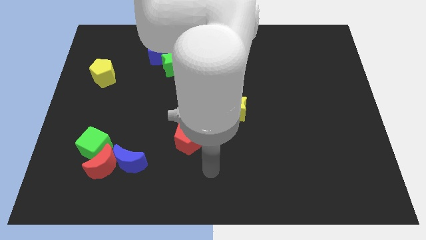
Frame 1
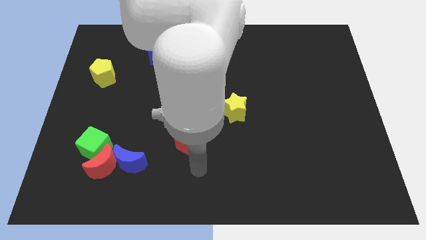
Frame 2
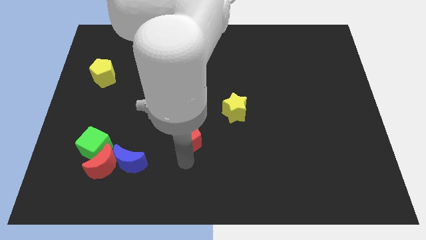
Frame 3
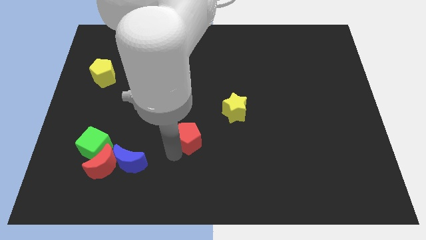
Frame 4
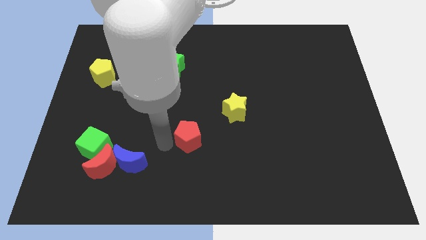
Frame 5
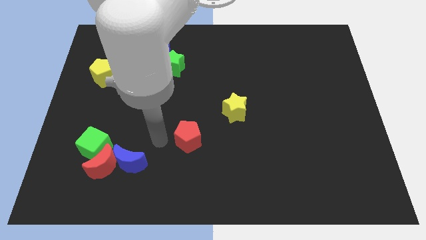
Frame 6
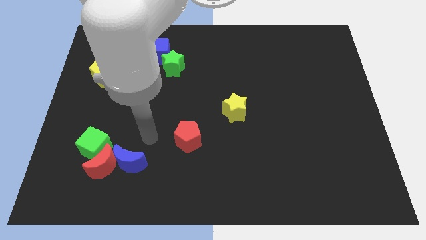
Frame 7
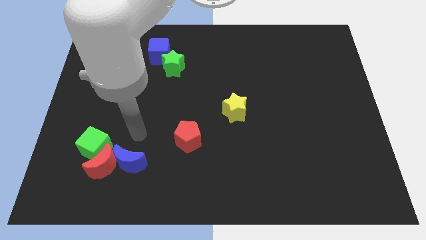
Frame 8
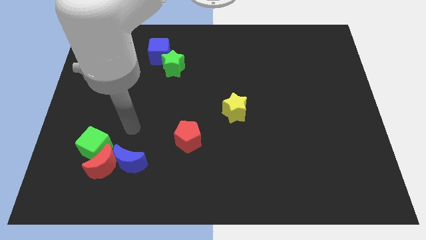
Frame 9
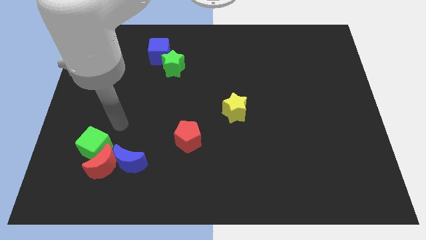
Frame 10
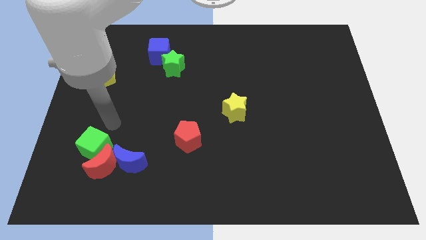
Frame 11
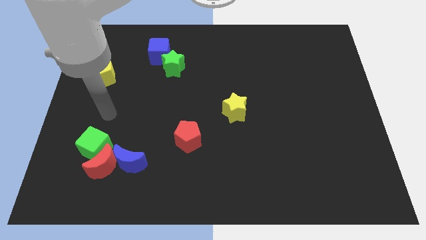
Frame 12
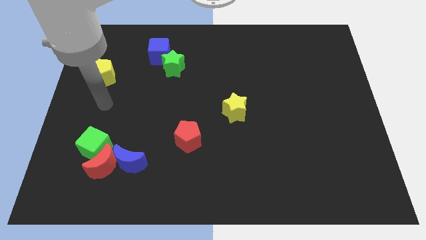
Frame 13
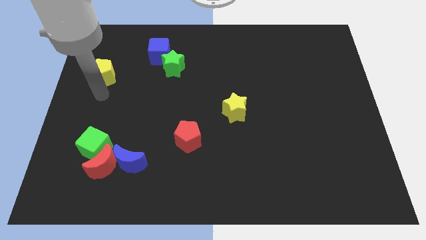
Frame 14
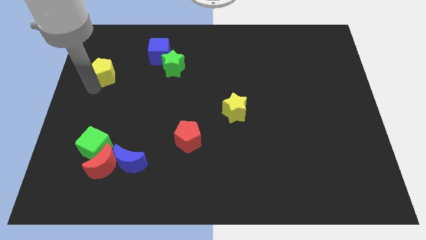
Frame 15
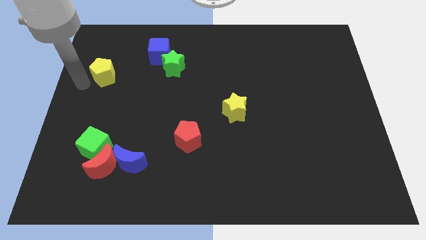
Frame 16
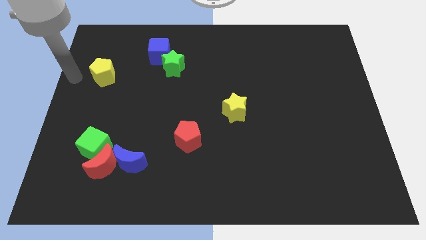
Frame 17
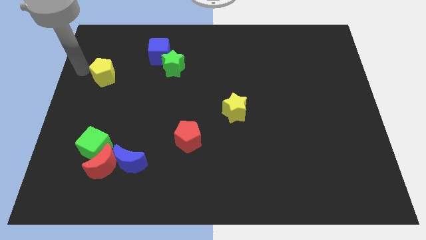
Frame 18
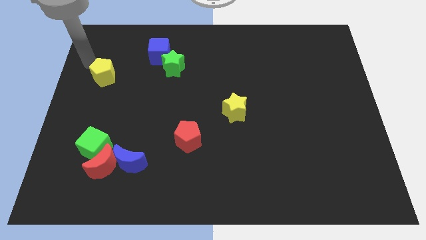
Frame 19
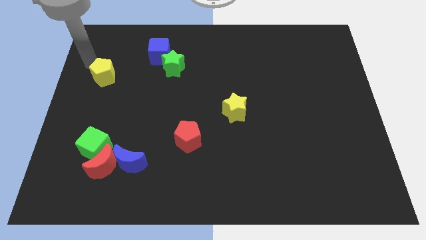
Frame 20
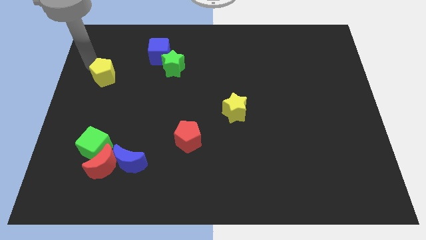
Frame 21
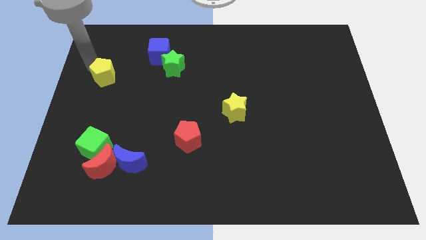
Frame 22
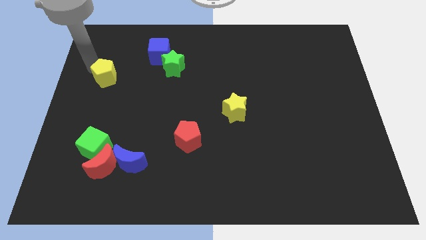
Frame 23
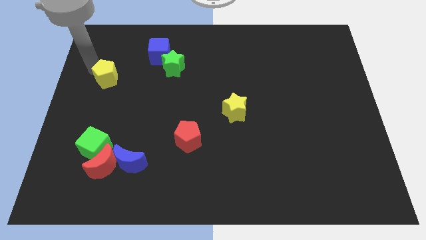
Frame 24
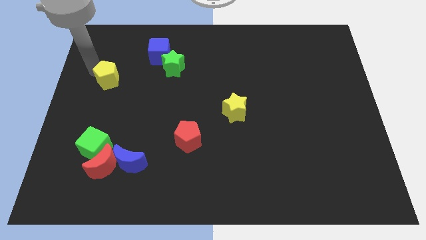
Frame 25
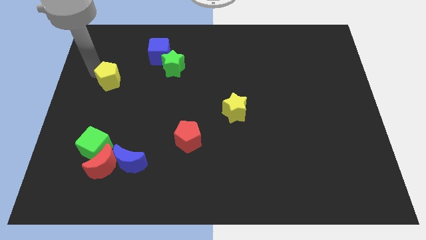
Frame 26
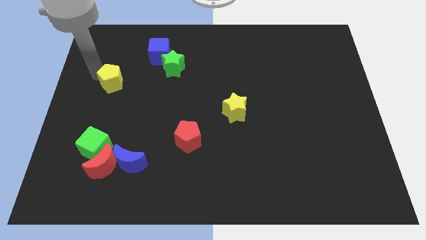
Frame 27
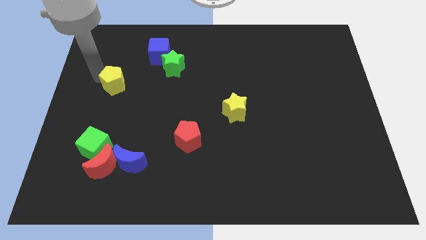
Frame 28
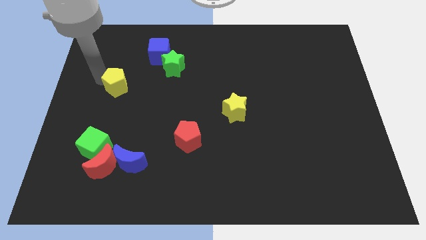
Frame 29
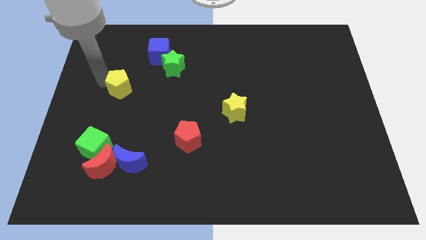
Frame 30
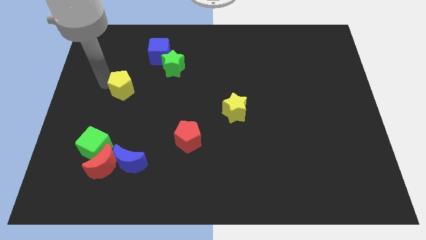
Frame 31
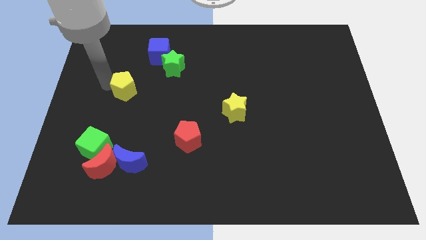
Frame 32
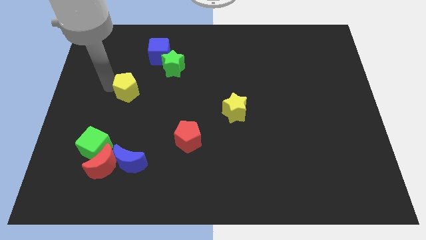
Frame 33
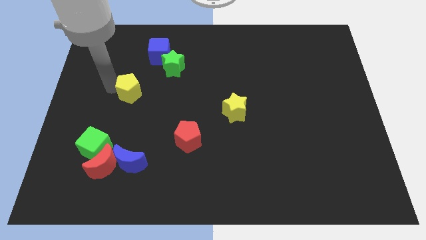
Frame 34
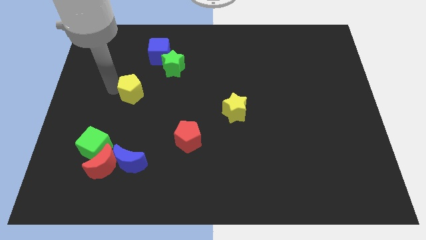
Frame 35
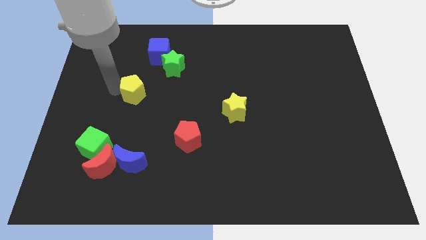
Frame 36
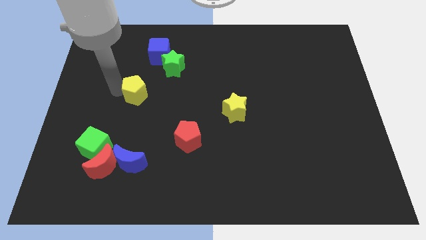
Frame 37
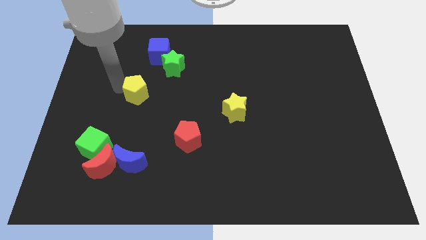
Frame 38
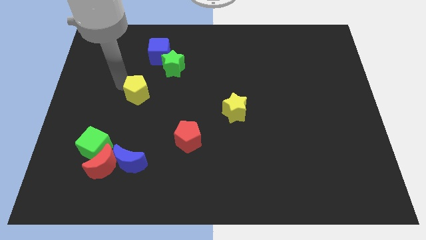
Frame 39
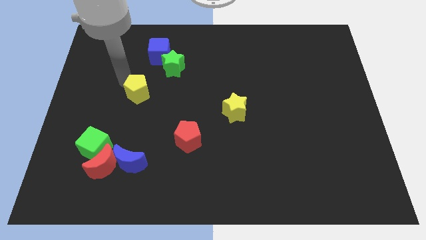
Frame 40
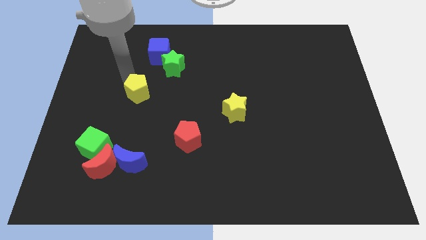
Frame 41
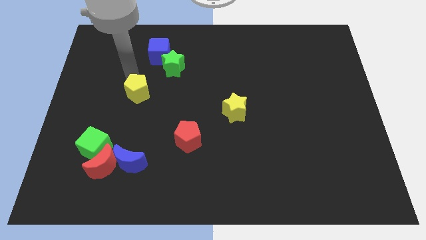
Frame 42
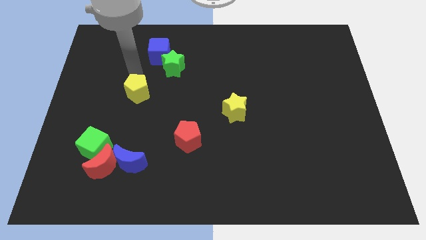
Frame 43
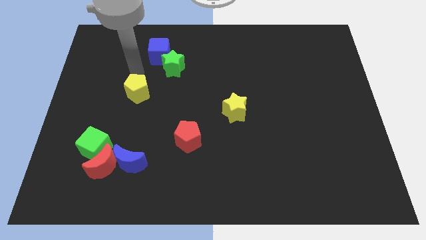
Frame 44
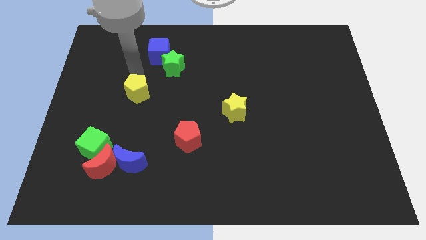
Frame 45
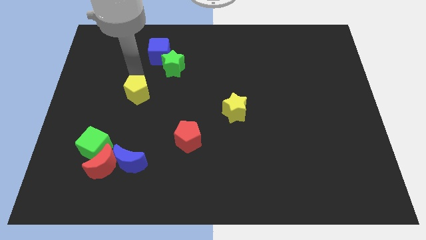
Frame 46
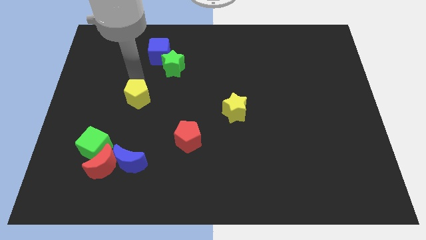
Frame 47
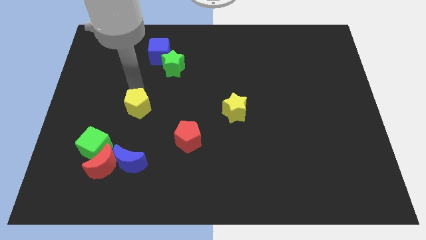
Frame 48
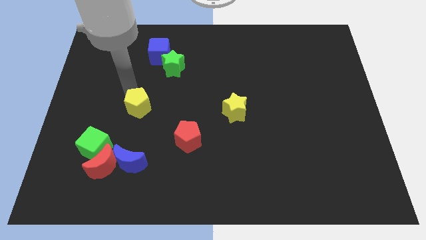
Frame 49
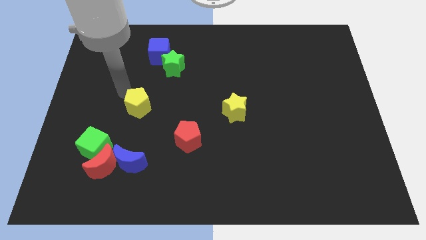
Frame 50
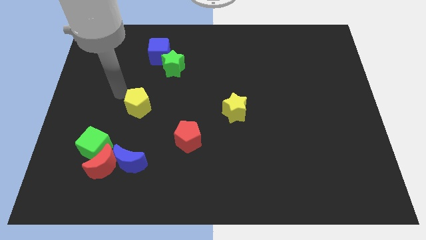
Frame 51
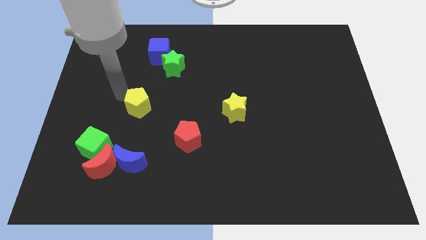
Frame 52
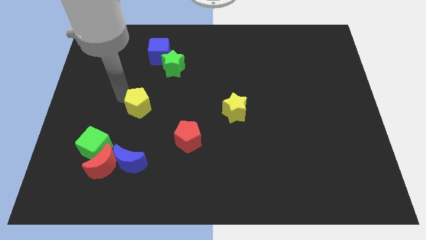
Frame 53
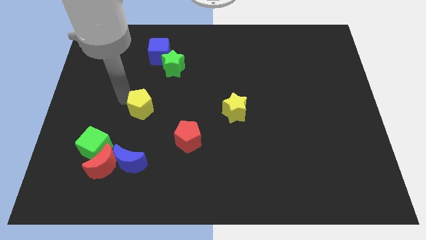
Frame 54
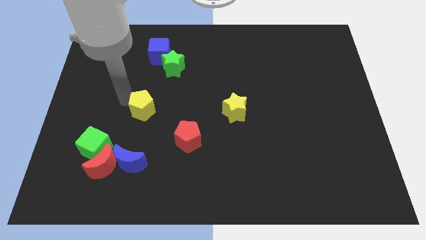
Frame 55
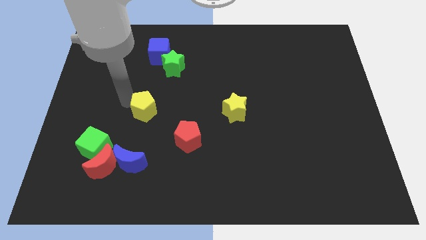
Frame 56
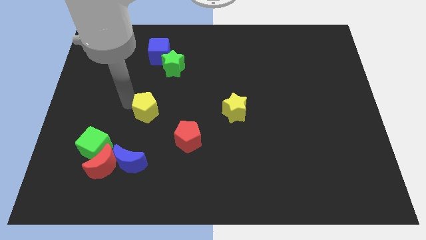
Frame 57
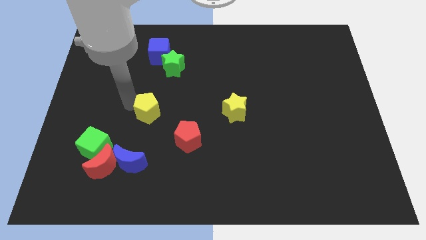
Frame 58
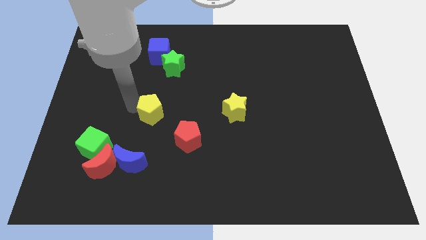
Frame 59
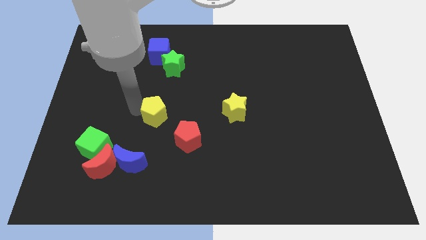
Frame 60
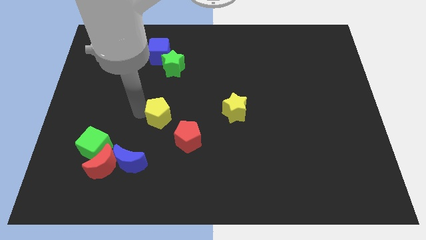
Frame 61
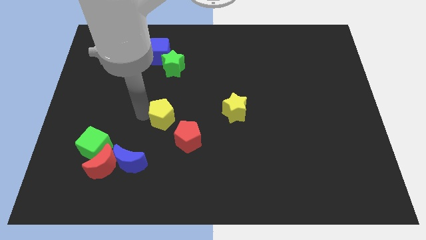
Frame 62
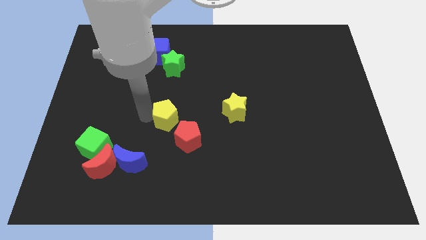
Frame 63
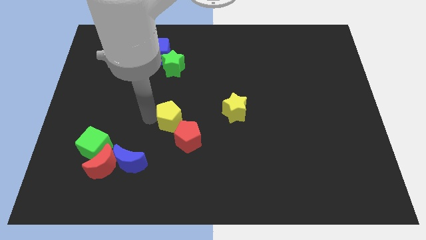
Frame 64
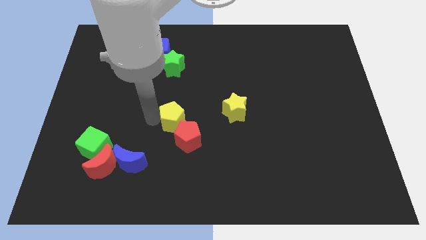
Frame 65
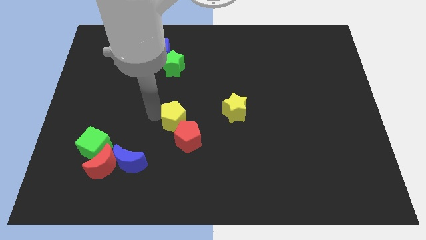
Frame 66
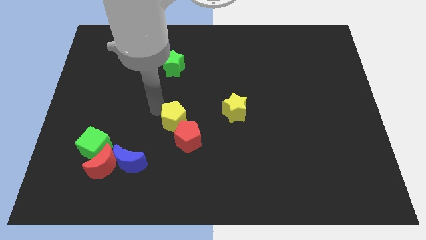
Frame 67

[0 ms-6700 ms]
slide the yellow pentagon towards the red pentagon
